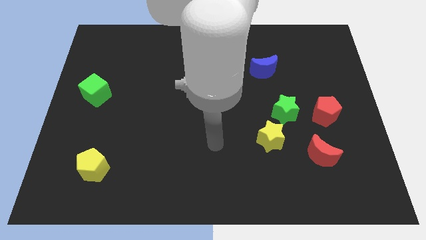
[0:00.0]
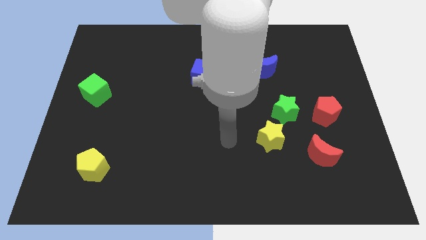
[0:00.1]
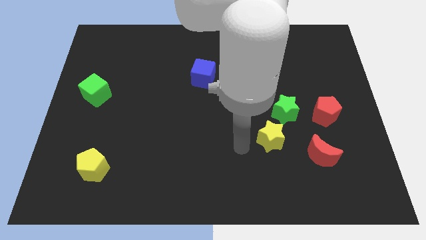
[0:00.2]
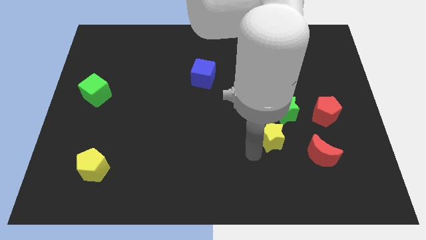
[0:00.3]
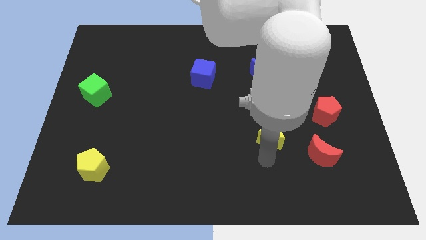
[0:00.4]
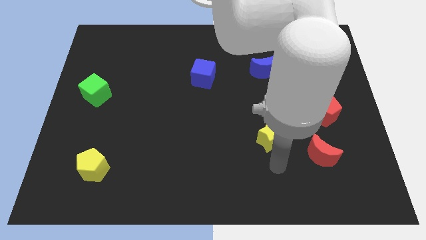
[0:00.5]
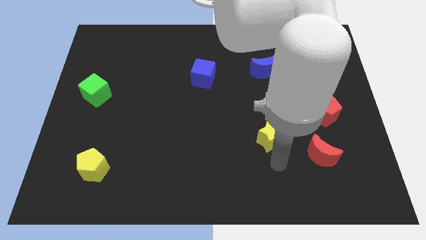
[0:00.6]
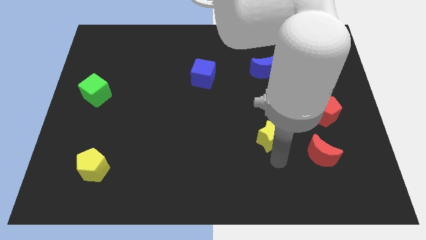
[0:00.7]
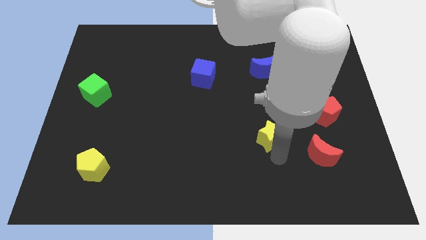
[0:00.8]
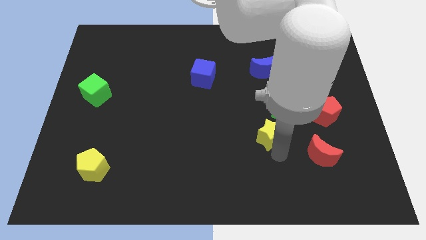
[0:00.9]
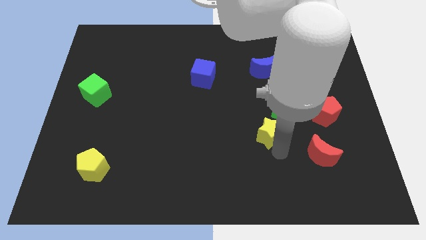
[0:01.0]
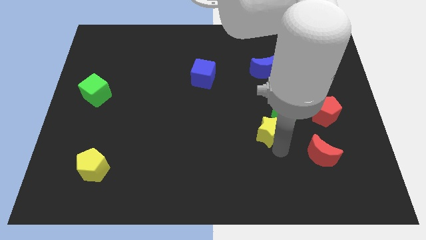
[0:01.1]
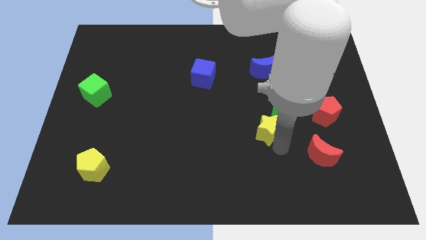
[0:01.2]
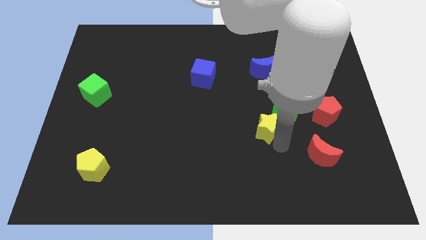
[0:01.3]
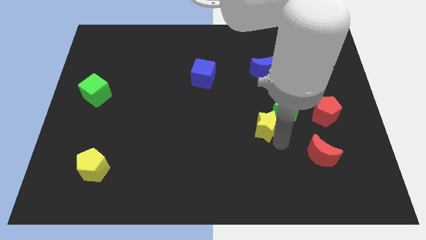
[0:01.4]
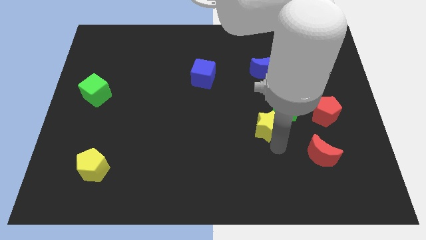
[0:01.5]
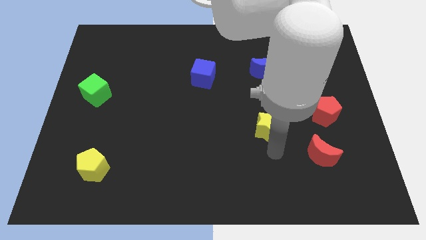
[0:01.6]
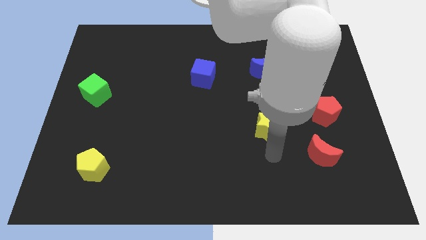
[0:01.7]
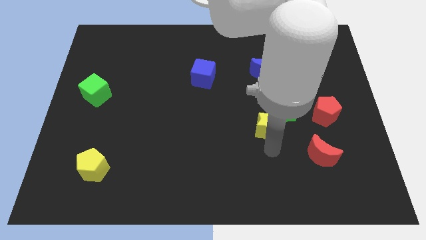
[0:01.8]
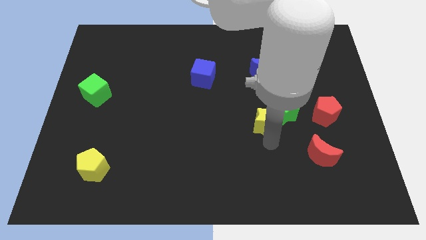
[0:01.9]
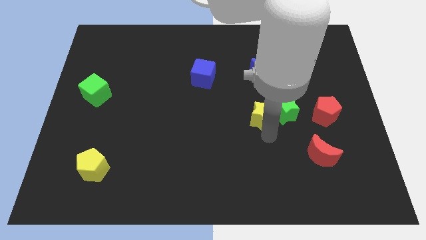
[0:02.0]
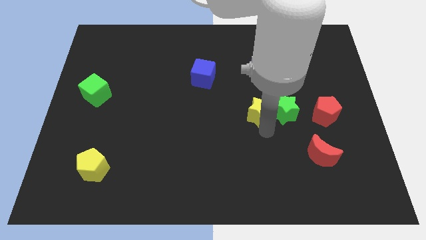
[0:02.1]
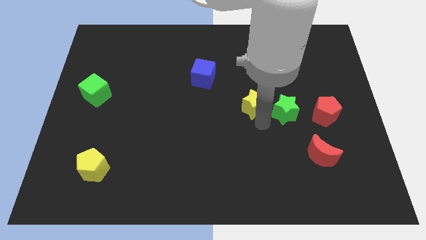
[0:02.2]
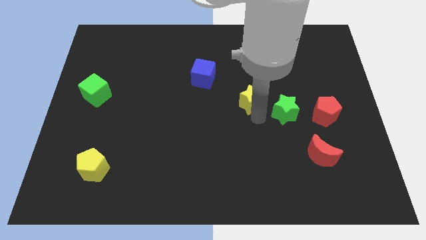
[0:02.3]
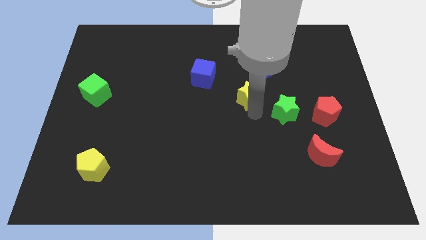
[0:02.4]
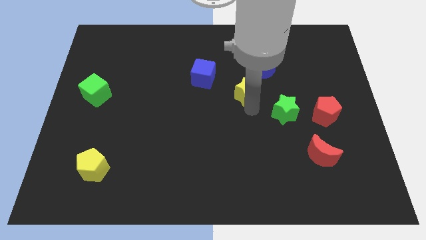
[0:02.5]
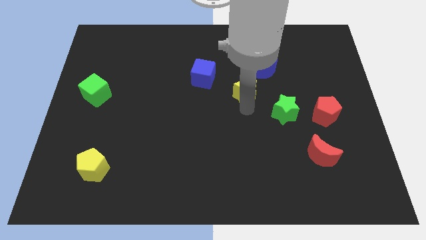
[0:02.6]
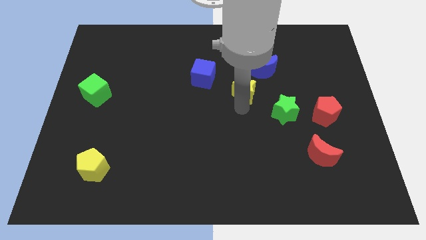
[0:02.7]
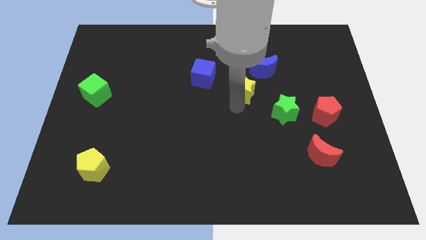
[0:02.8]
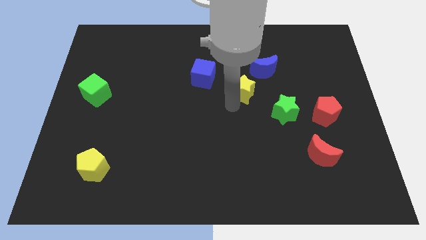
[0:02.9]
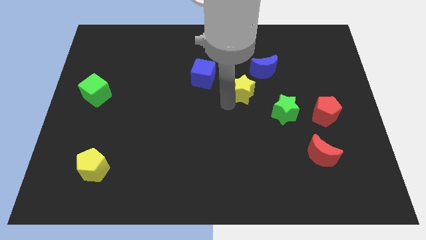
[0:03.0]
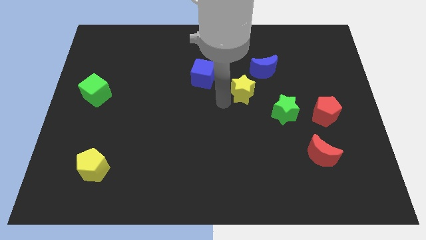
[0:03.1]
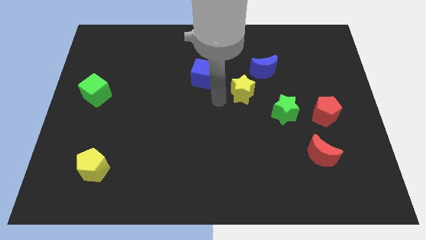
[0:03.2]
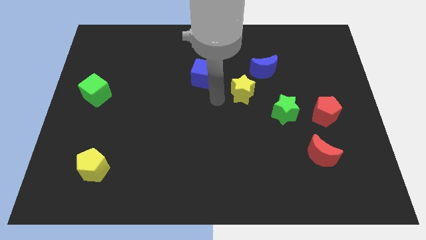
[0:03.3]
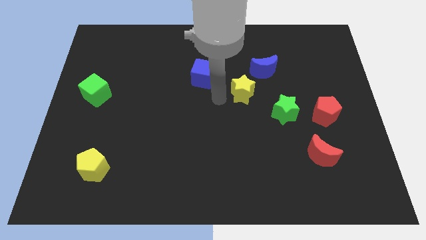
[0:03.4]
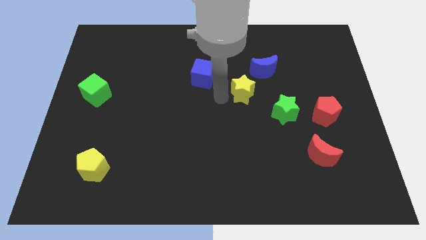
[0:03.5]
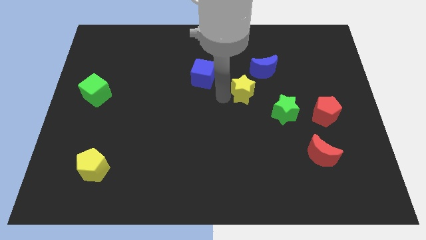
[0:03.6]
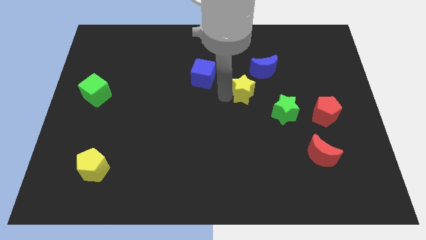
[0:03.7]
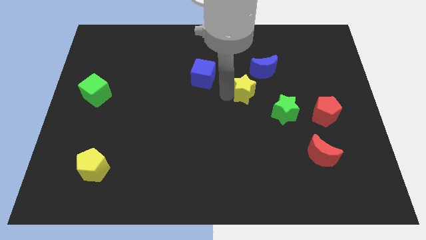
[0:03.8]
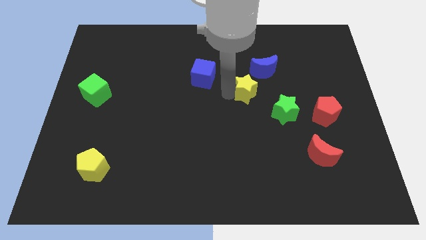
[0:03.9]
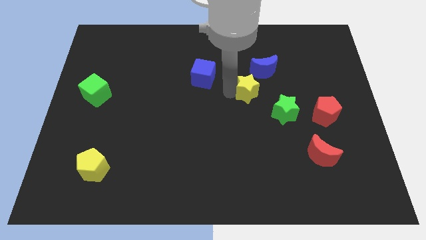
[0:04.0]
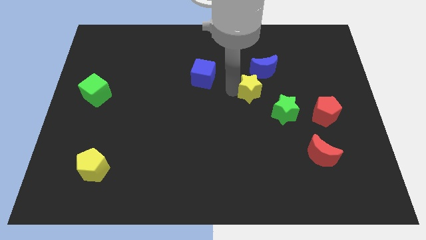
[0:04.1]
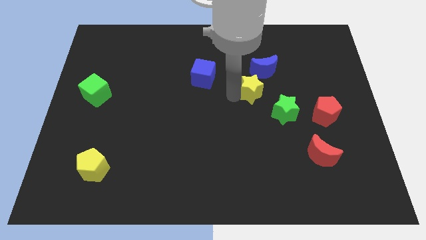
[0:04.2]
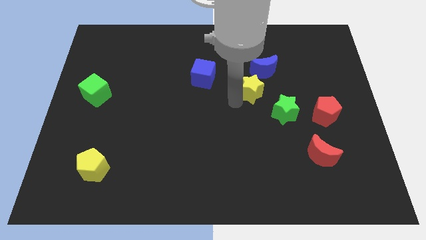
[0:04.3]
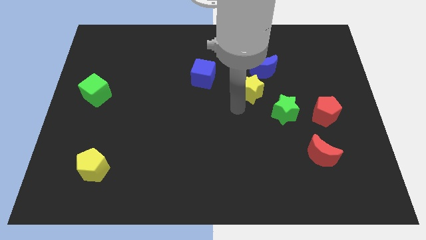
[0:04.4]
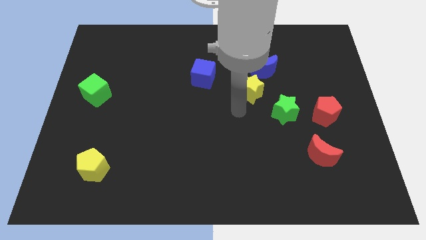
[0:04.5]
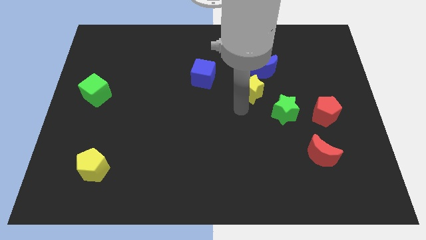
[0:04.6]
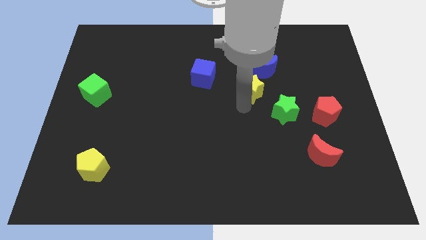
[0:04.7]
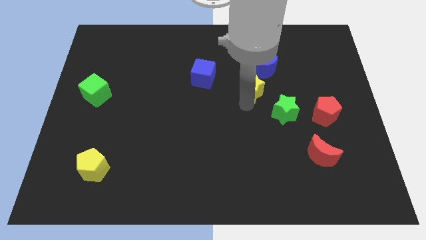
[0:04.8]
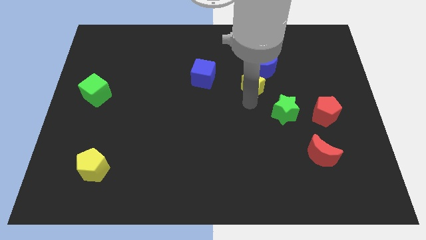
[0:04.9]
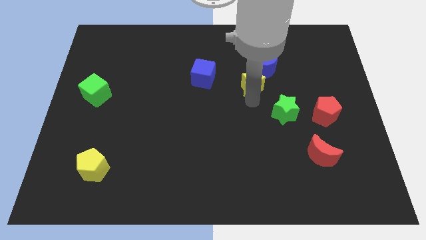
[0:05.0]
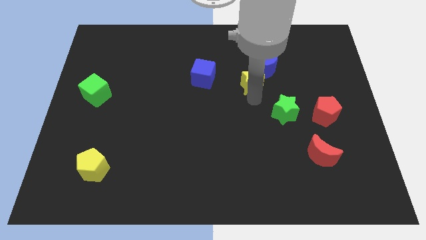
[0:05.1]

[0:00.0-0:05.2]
slide the yellow star to the blue moon

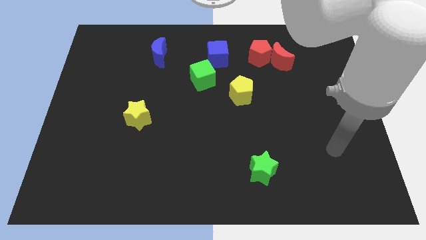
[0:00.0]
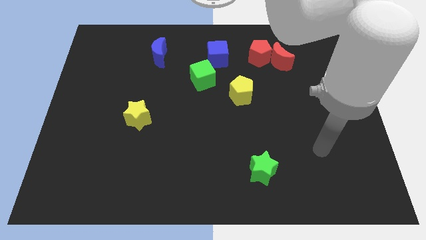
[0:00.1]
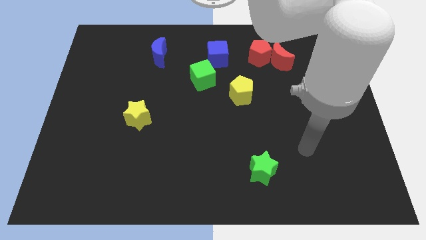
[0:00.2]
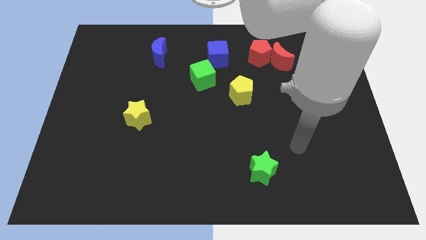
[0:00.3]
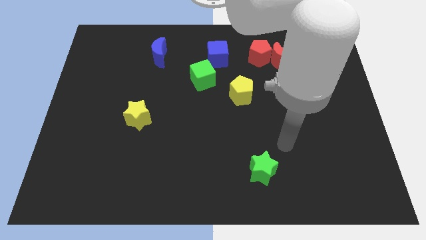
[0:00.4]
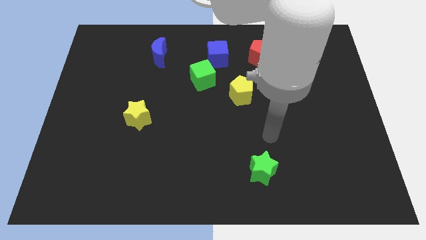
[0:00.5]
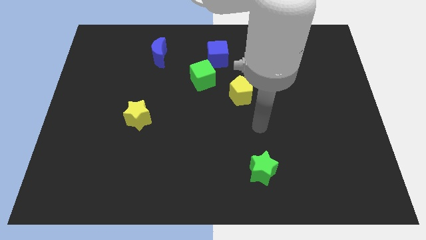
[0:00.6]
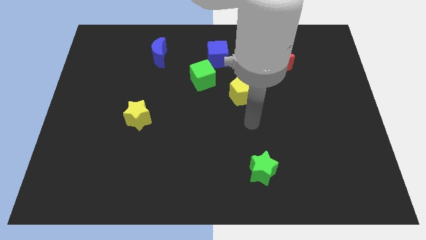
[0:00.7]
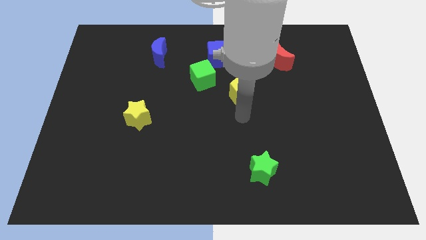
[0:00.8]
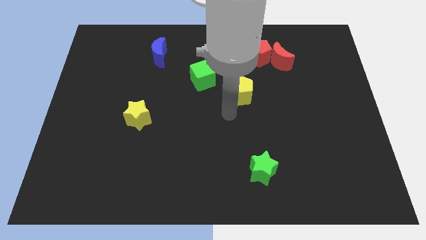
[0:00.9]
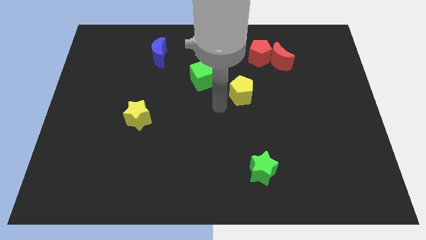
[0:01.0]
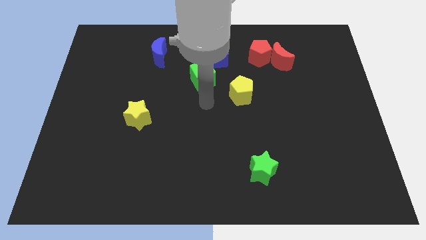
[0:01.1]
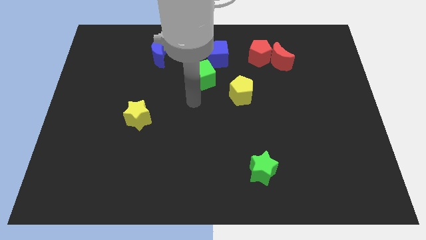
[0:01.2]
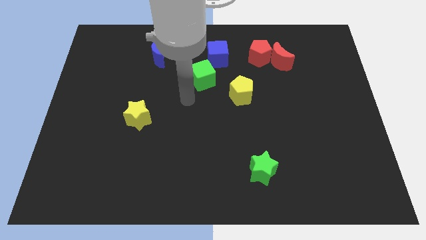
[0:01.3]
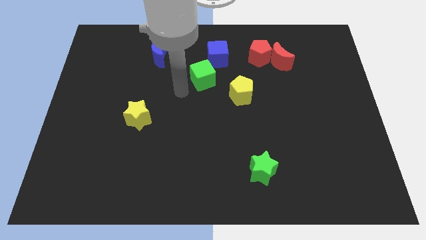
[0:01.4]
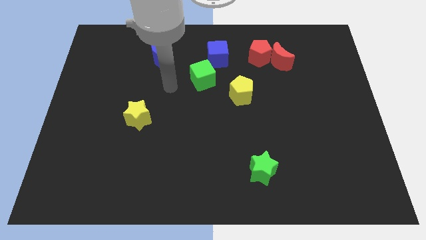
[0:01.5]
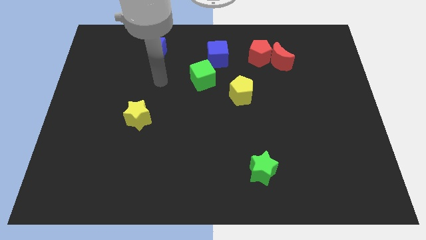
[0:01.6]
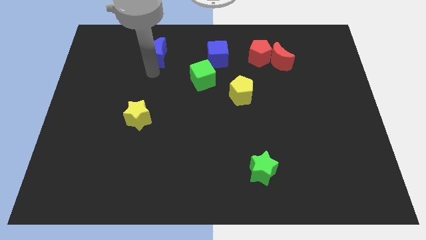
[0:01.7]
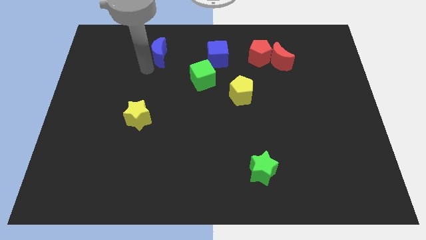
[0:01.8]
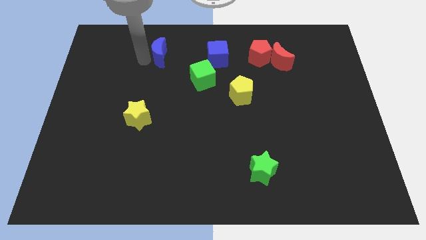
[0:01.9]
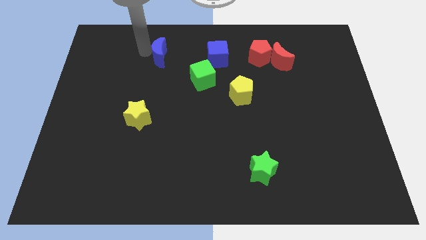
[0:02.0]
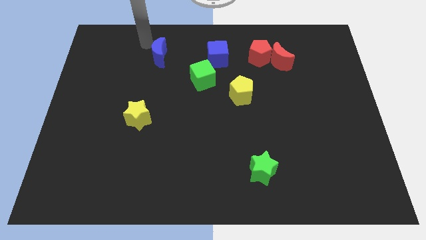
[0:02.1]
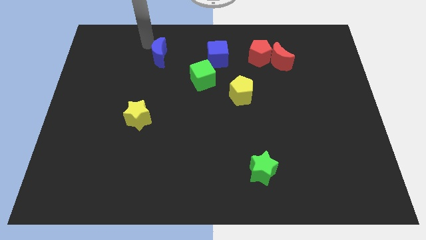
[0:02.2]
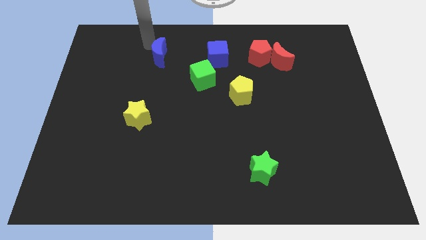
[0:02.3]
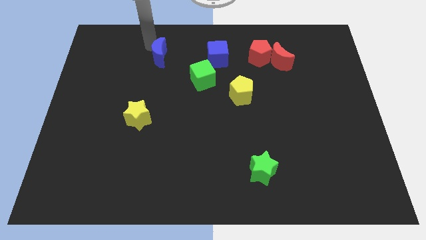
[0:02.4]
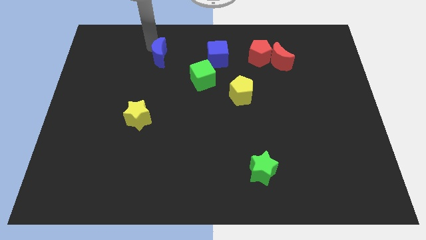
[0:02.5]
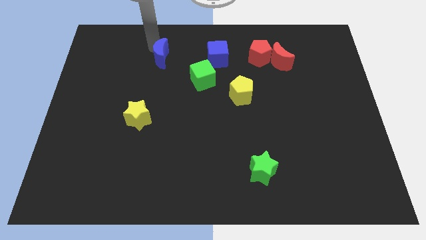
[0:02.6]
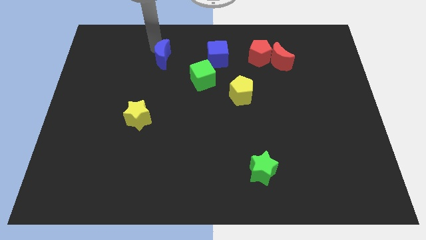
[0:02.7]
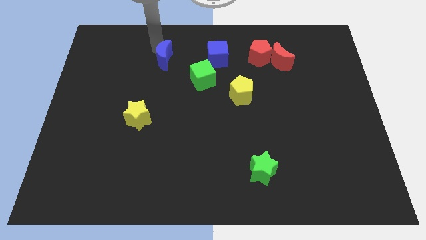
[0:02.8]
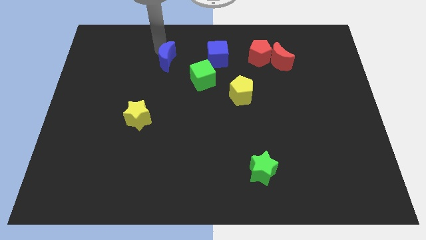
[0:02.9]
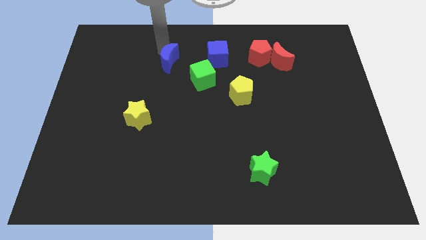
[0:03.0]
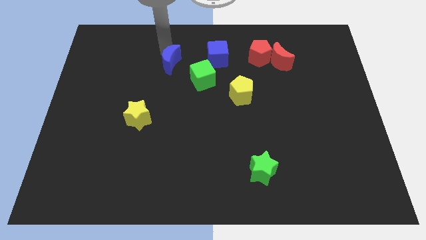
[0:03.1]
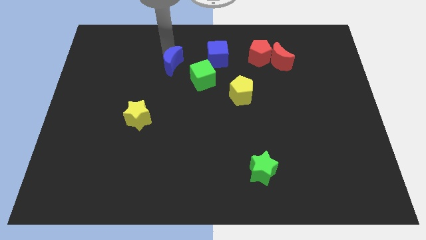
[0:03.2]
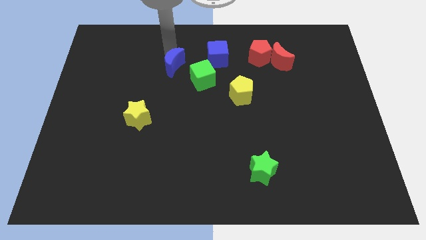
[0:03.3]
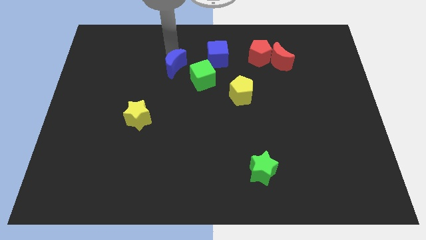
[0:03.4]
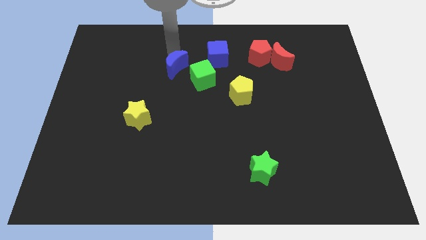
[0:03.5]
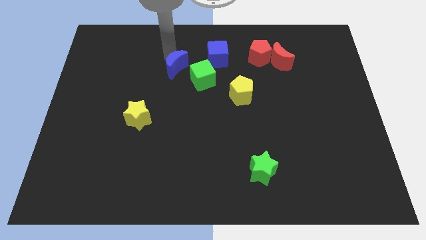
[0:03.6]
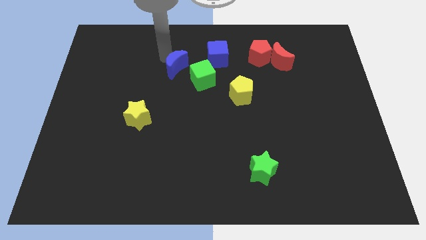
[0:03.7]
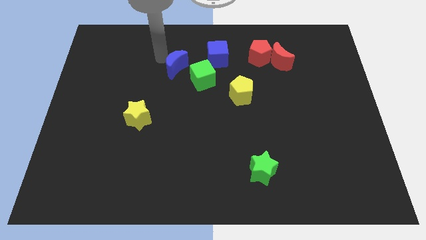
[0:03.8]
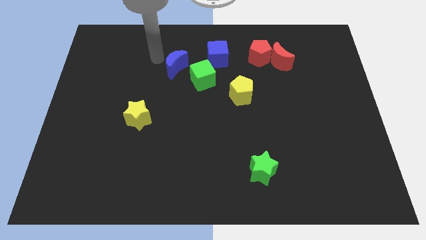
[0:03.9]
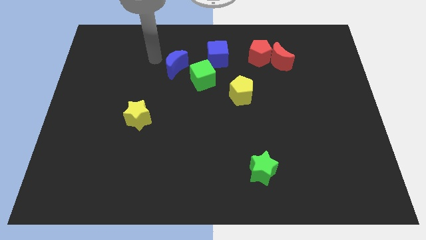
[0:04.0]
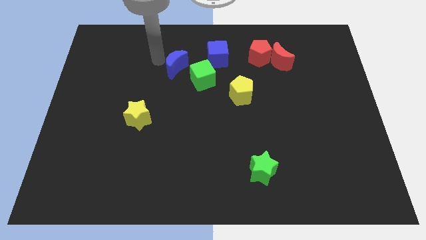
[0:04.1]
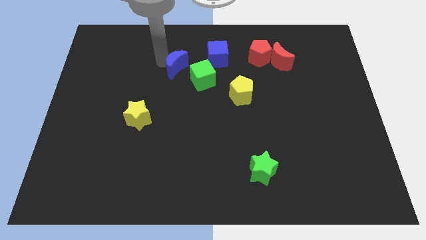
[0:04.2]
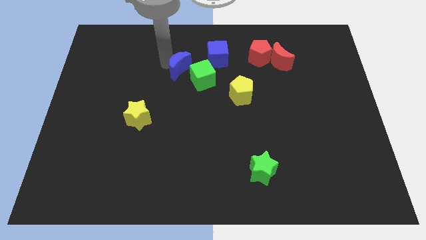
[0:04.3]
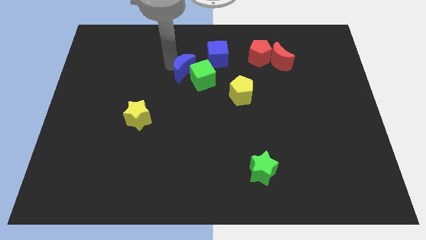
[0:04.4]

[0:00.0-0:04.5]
push the blue moon to the green cube
